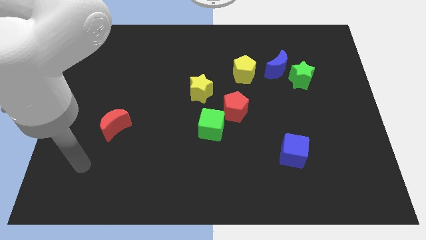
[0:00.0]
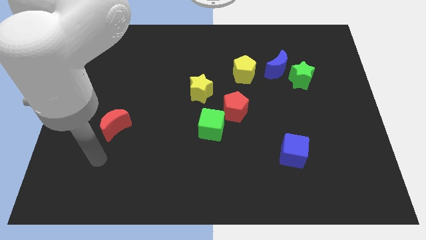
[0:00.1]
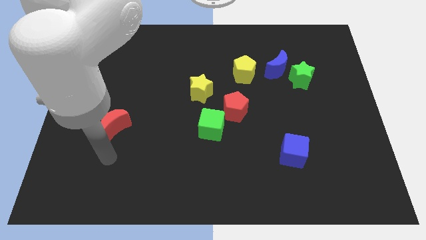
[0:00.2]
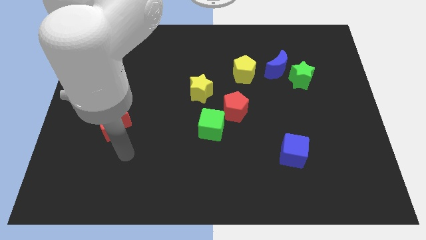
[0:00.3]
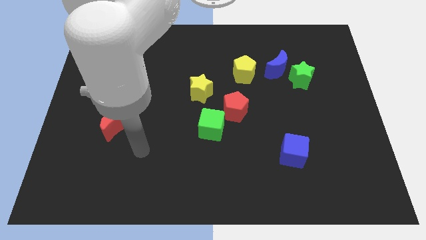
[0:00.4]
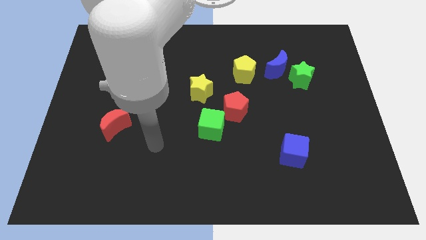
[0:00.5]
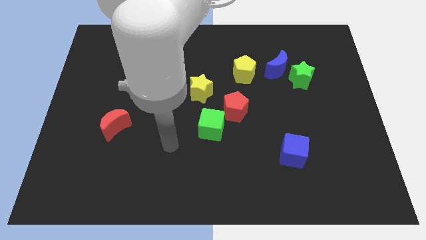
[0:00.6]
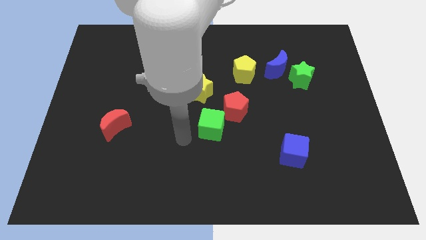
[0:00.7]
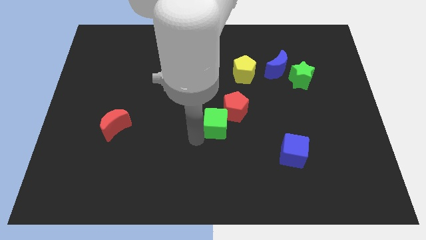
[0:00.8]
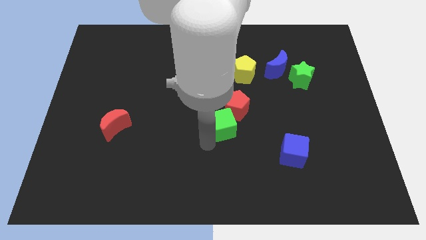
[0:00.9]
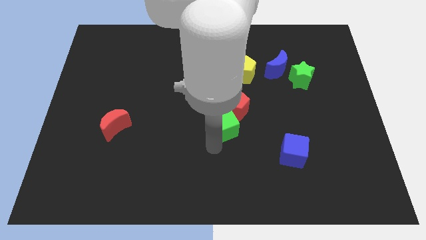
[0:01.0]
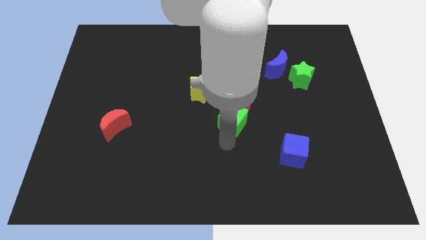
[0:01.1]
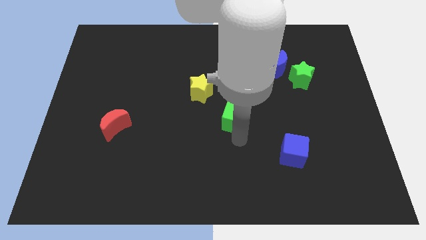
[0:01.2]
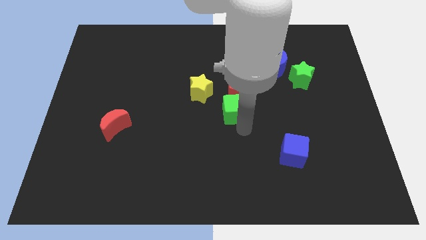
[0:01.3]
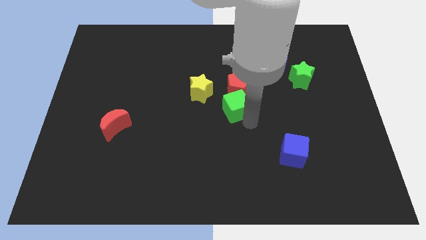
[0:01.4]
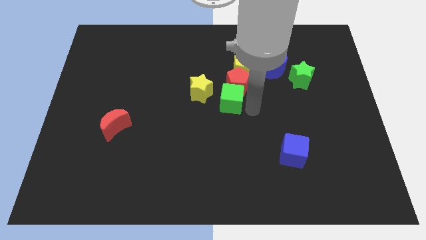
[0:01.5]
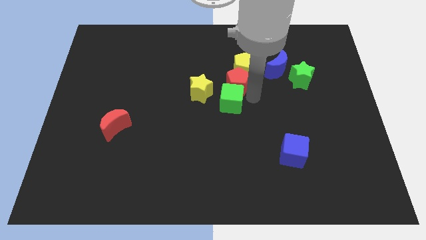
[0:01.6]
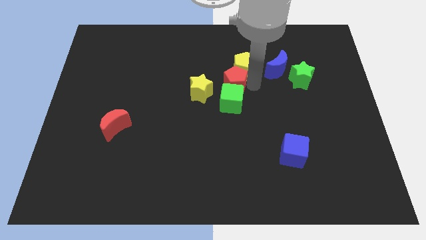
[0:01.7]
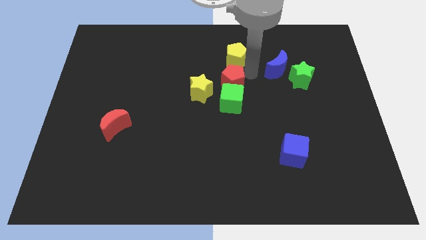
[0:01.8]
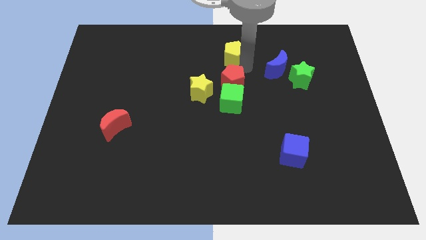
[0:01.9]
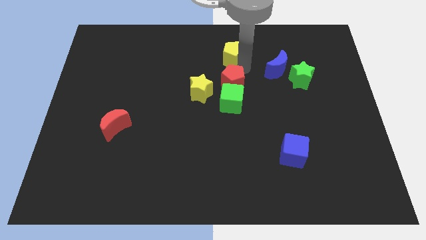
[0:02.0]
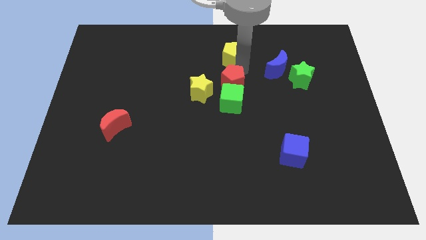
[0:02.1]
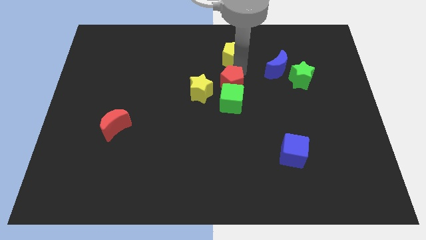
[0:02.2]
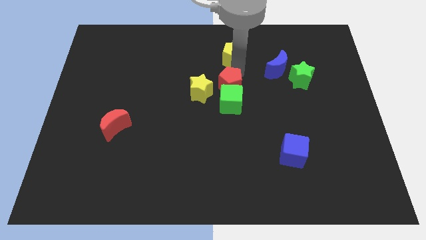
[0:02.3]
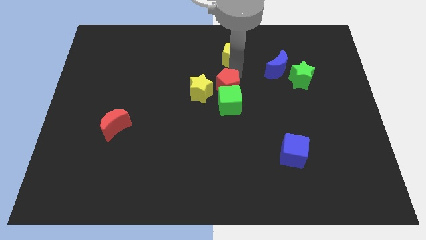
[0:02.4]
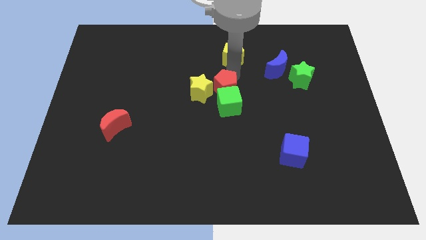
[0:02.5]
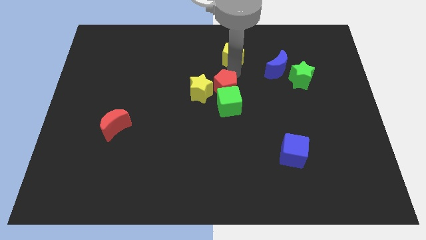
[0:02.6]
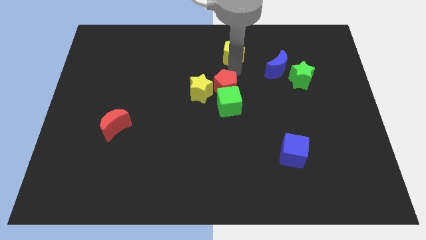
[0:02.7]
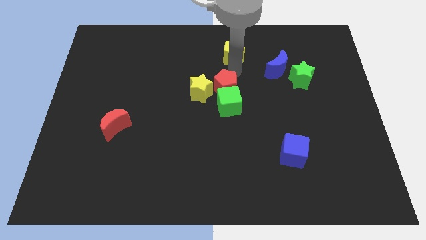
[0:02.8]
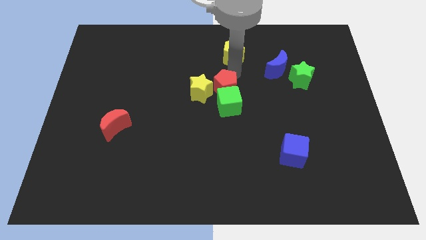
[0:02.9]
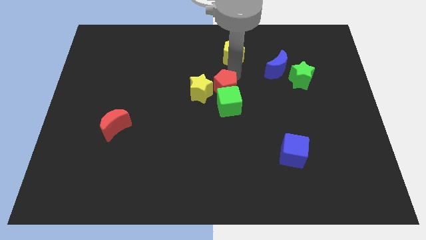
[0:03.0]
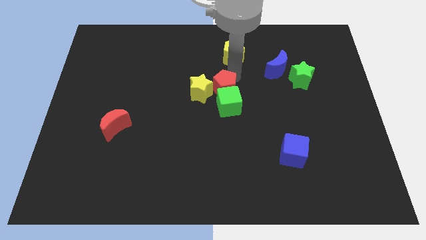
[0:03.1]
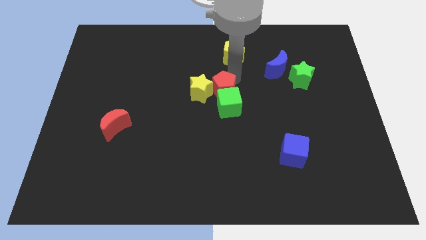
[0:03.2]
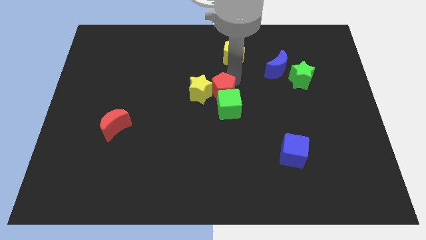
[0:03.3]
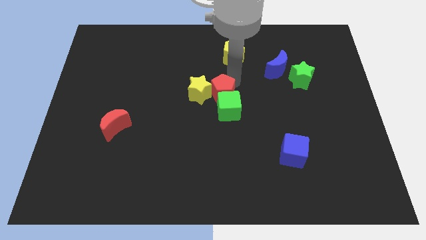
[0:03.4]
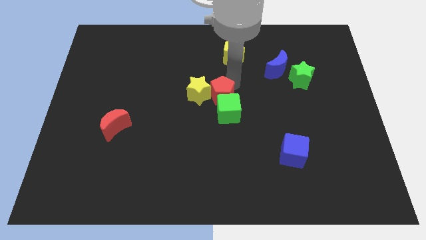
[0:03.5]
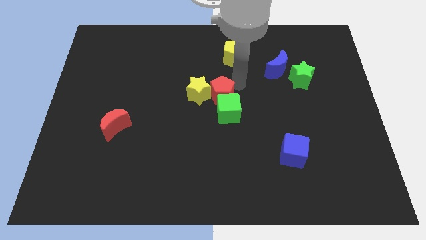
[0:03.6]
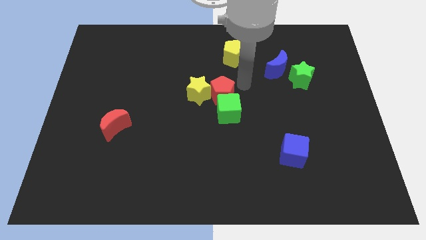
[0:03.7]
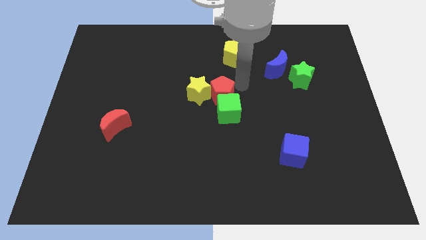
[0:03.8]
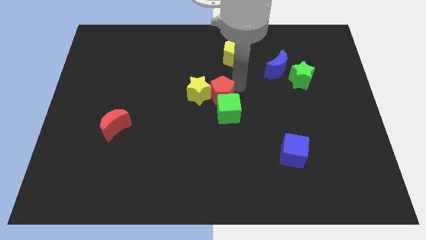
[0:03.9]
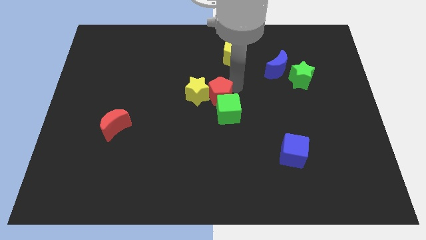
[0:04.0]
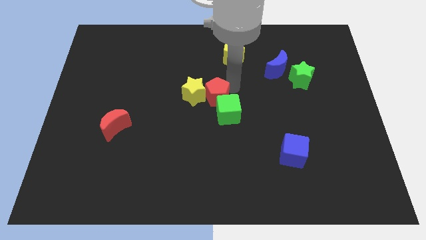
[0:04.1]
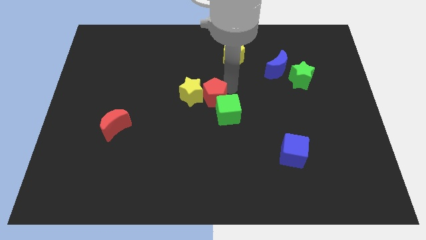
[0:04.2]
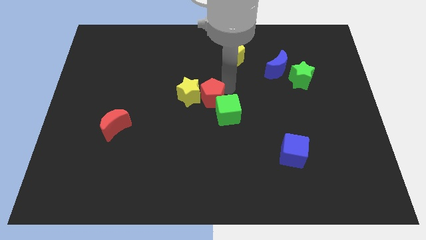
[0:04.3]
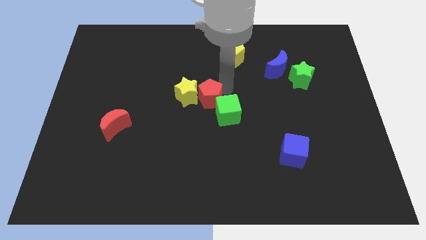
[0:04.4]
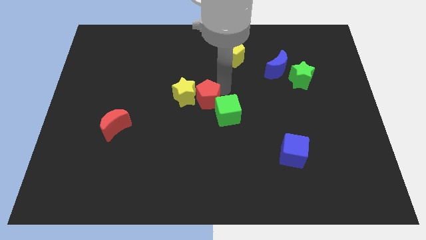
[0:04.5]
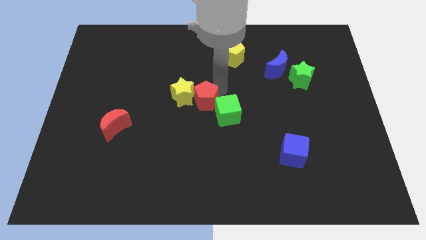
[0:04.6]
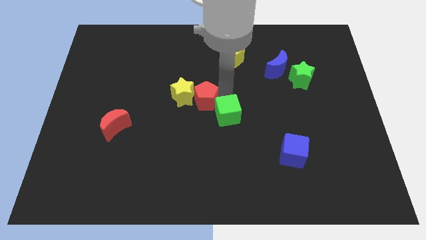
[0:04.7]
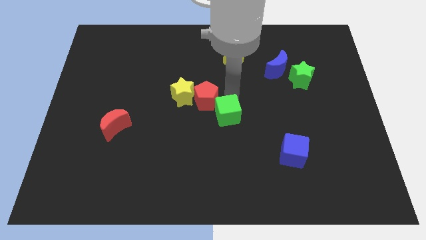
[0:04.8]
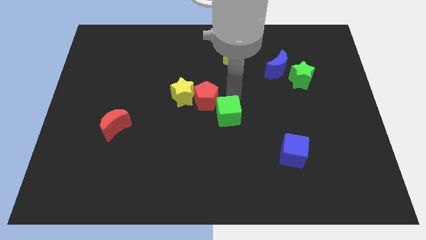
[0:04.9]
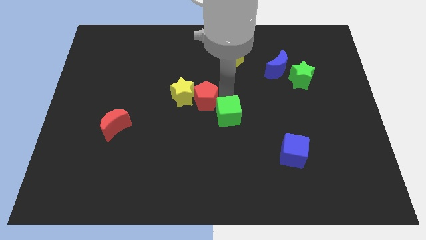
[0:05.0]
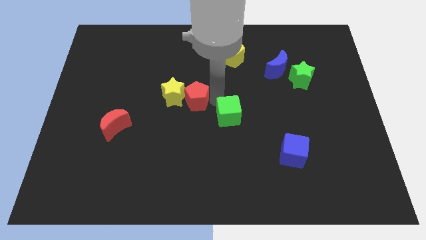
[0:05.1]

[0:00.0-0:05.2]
slide the red pentagon left somewhat

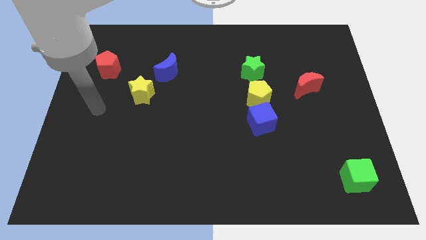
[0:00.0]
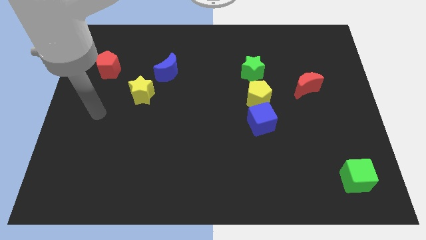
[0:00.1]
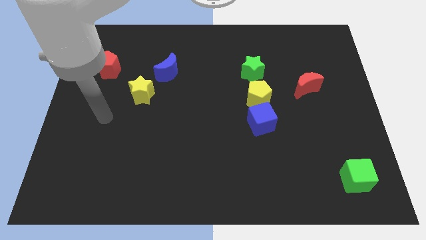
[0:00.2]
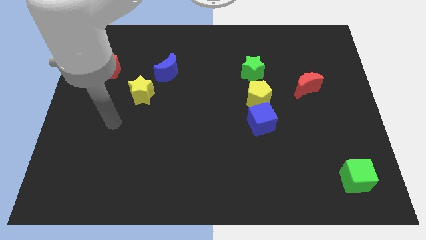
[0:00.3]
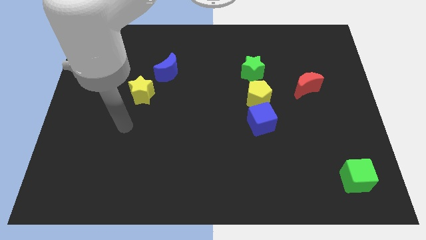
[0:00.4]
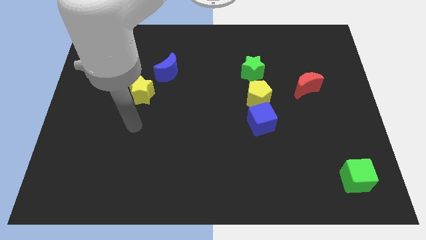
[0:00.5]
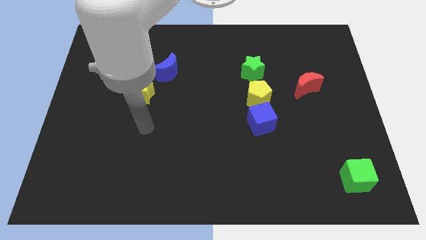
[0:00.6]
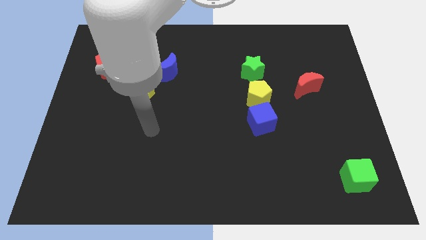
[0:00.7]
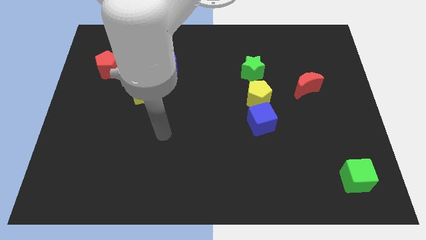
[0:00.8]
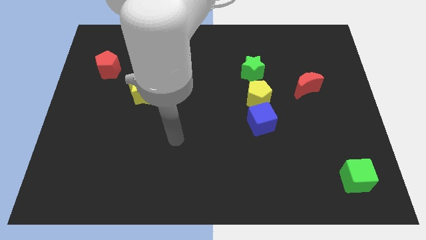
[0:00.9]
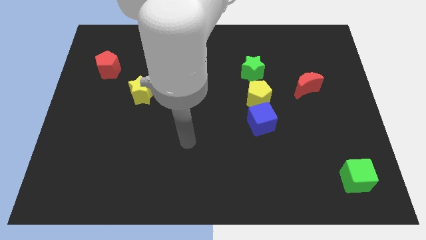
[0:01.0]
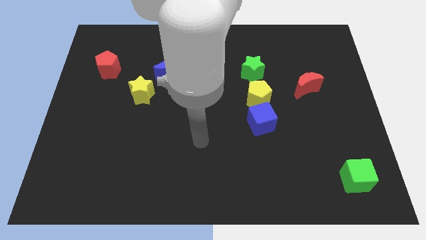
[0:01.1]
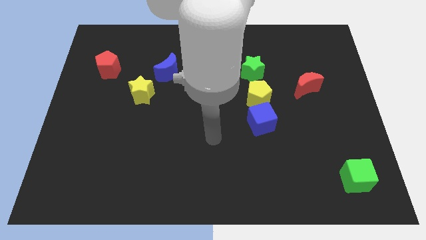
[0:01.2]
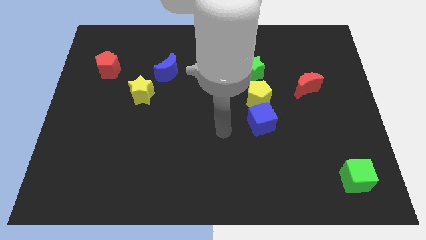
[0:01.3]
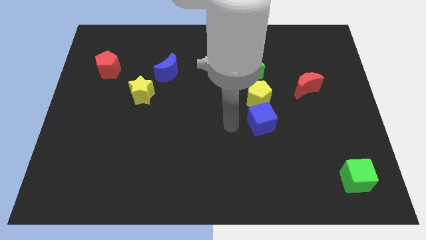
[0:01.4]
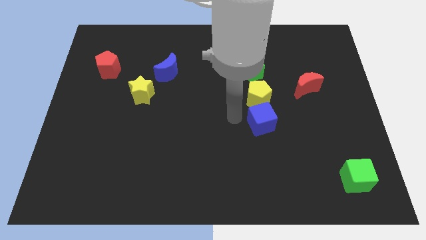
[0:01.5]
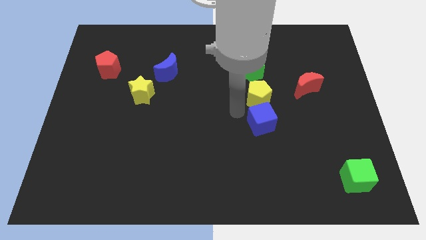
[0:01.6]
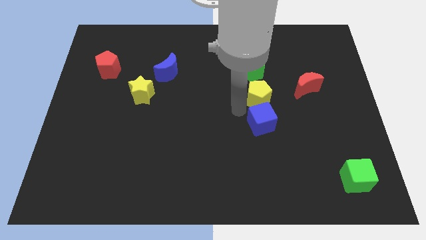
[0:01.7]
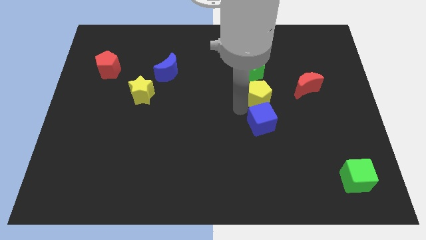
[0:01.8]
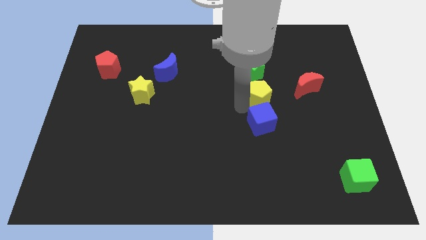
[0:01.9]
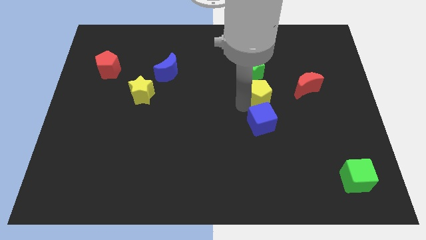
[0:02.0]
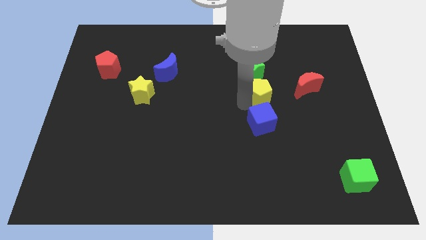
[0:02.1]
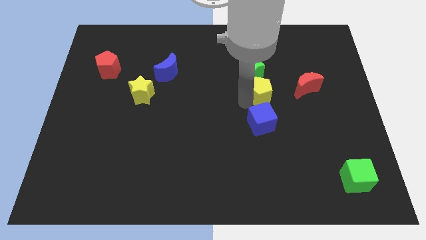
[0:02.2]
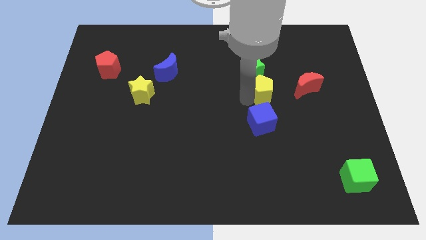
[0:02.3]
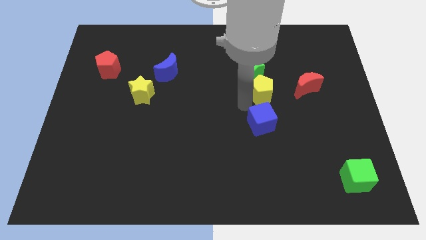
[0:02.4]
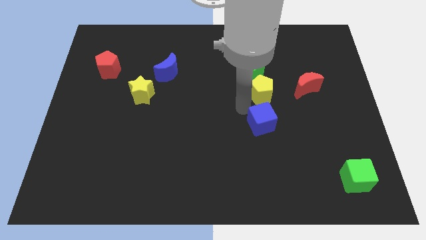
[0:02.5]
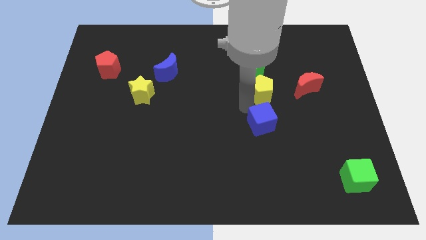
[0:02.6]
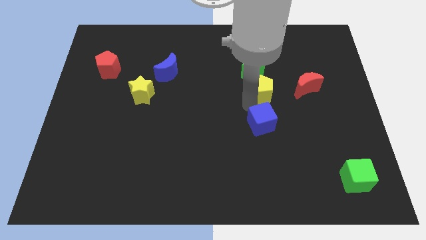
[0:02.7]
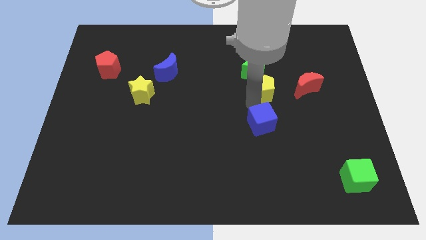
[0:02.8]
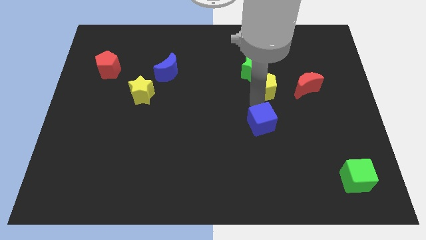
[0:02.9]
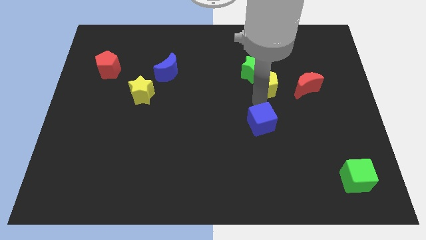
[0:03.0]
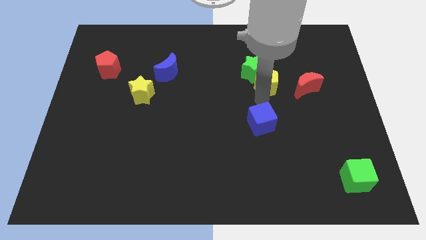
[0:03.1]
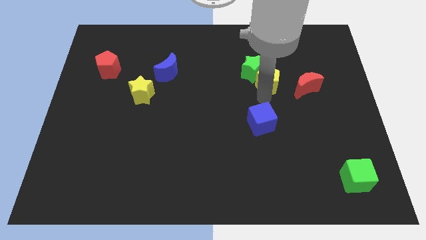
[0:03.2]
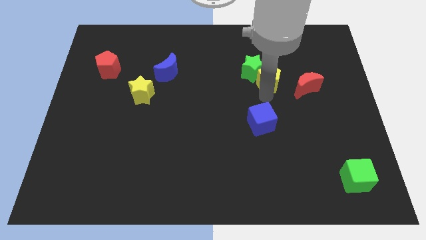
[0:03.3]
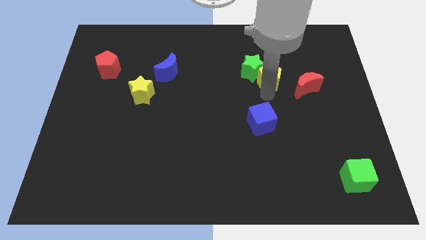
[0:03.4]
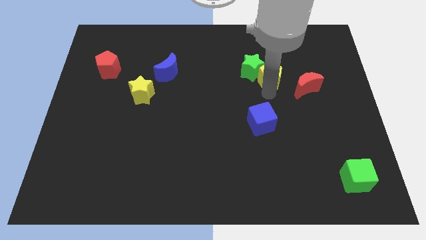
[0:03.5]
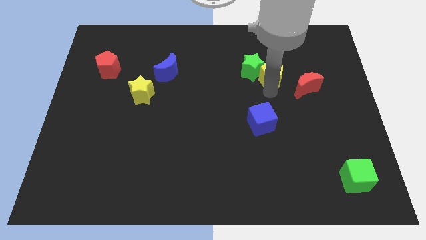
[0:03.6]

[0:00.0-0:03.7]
slide the yellow pentagon upwards and then right a little bit
